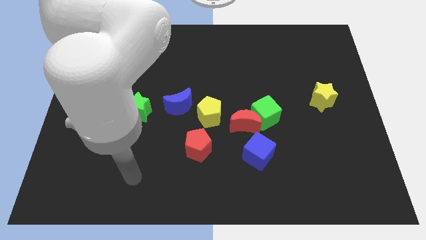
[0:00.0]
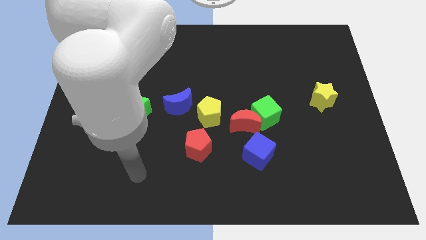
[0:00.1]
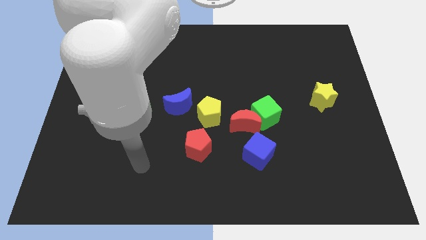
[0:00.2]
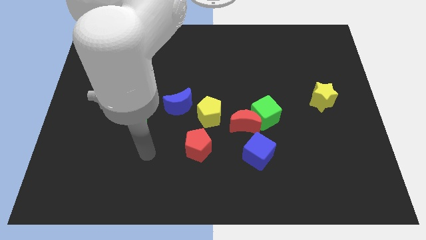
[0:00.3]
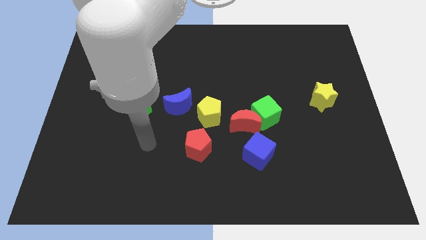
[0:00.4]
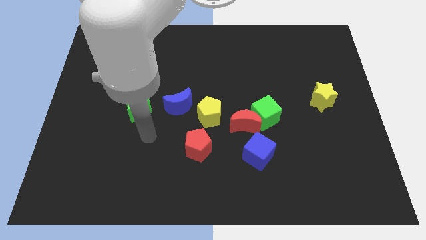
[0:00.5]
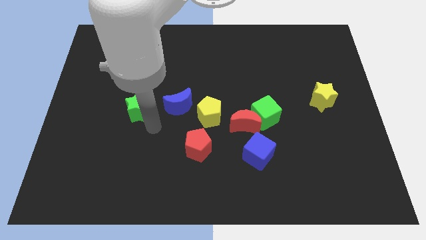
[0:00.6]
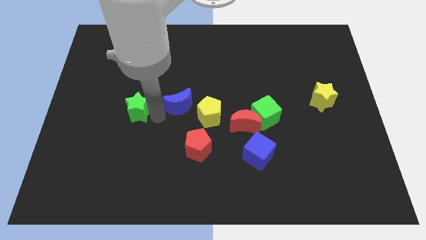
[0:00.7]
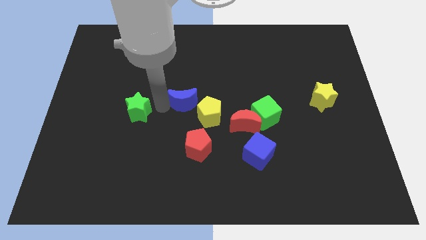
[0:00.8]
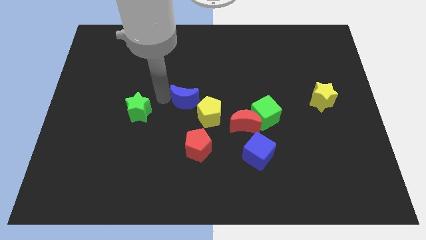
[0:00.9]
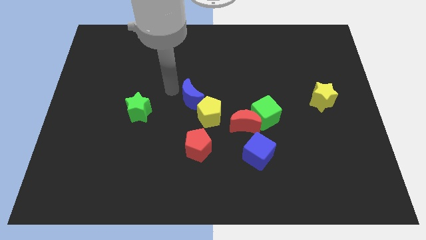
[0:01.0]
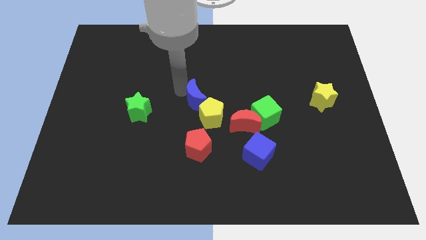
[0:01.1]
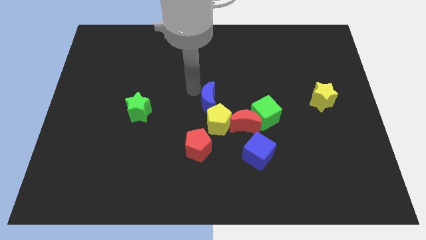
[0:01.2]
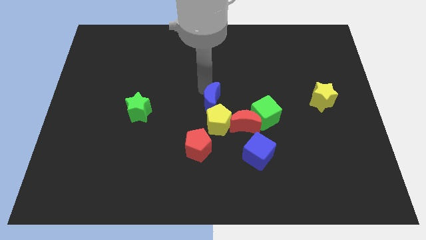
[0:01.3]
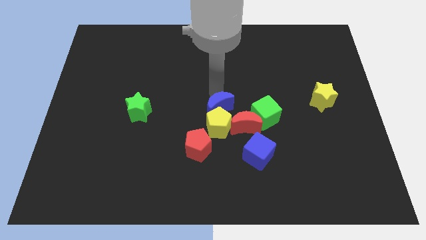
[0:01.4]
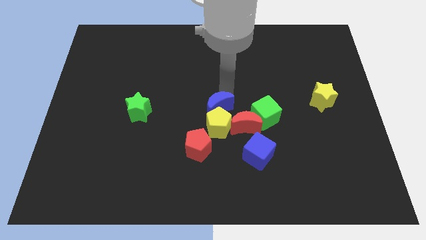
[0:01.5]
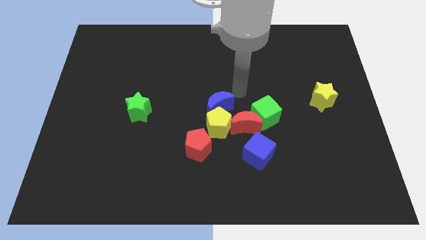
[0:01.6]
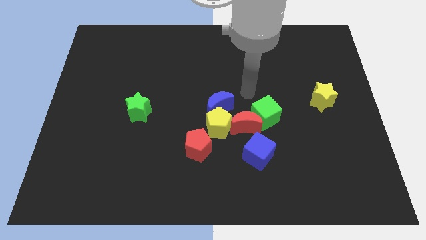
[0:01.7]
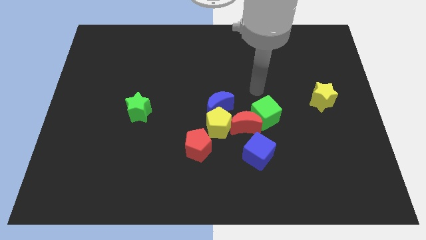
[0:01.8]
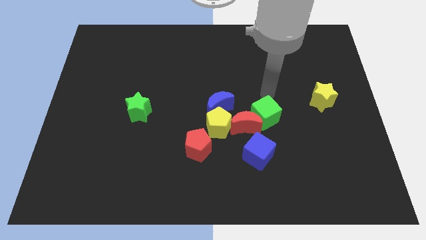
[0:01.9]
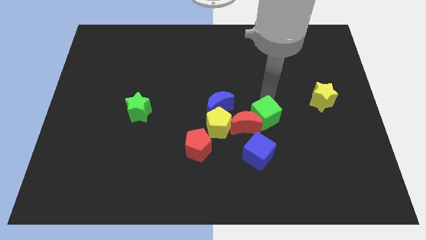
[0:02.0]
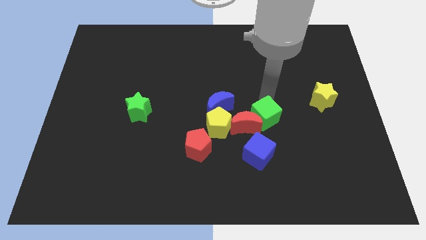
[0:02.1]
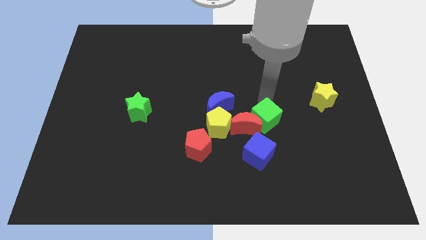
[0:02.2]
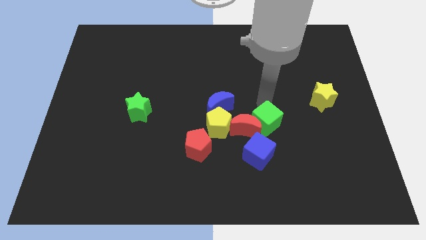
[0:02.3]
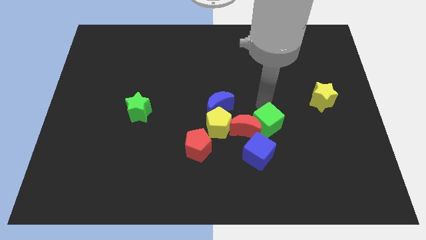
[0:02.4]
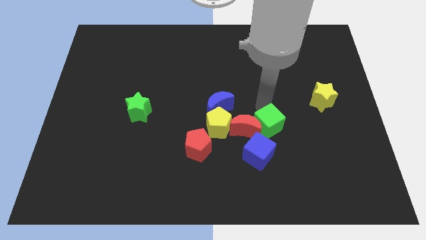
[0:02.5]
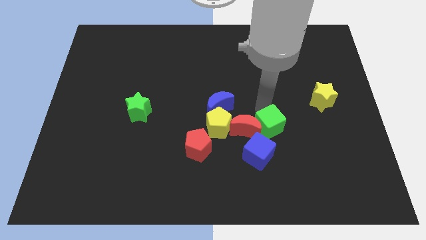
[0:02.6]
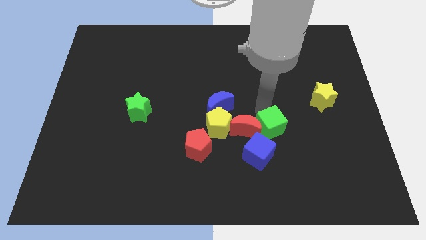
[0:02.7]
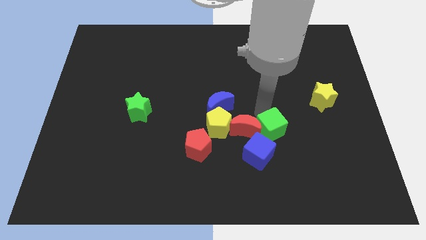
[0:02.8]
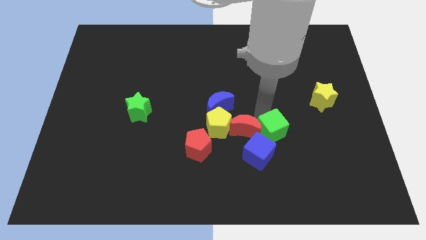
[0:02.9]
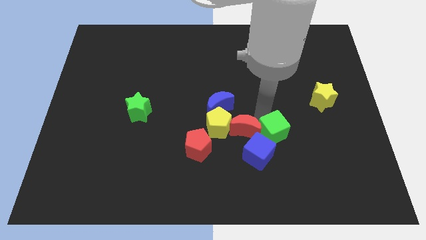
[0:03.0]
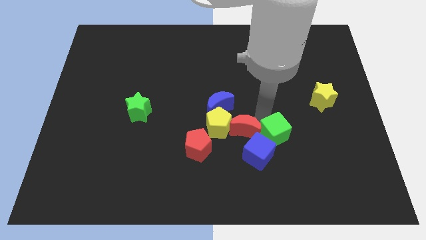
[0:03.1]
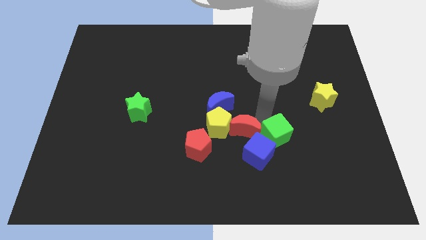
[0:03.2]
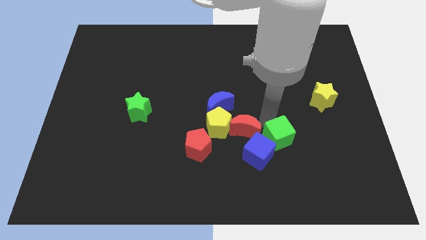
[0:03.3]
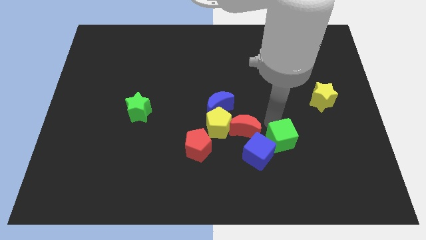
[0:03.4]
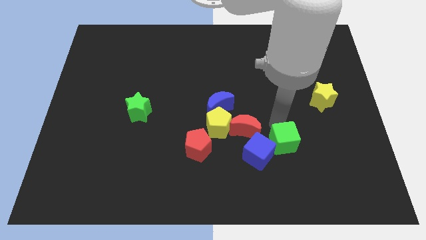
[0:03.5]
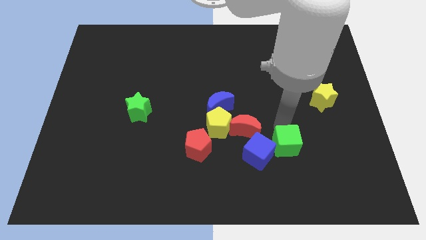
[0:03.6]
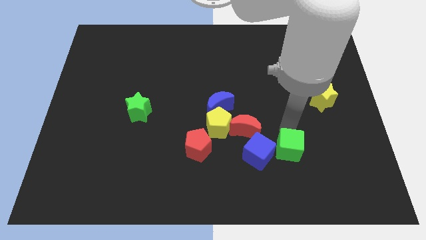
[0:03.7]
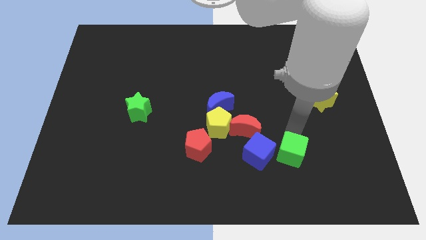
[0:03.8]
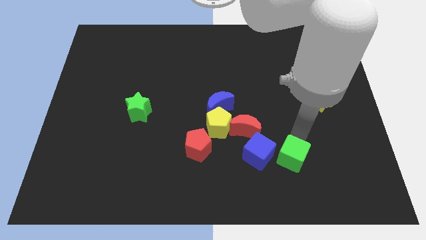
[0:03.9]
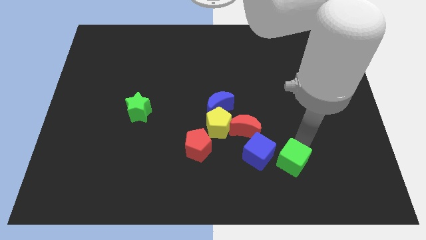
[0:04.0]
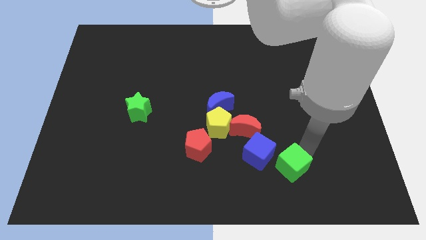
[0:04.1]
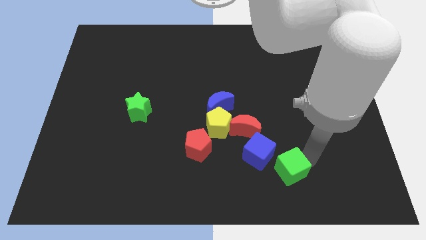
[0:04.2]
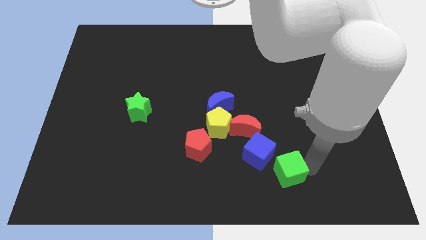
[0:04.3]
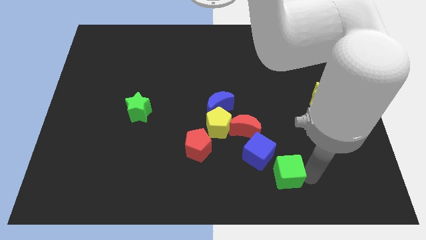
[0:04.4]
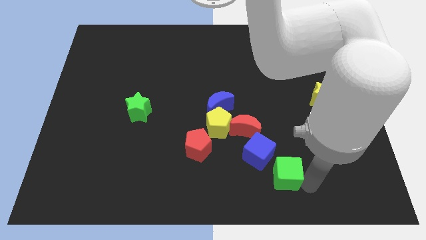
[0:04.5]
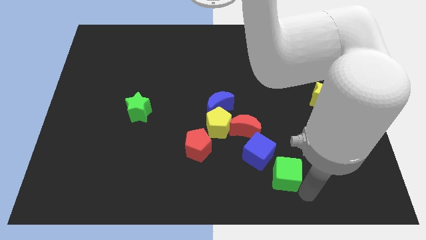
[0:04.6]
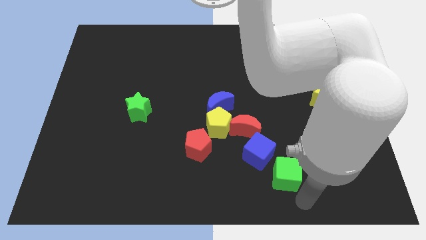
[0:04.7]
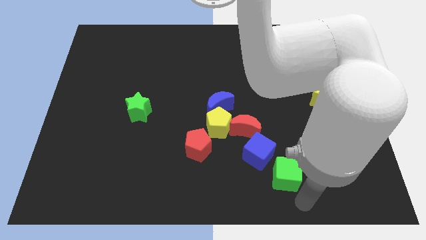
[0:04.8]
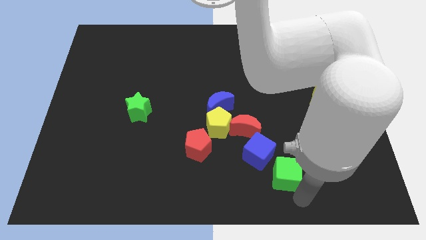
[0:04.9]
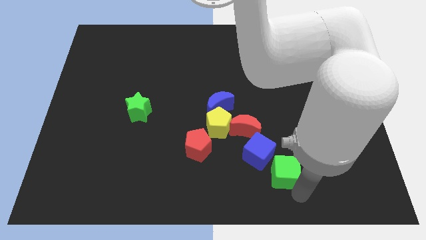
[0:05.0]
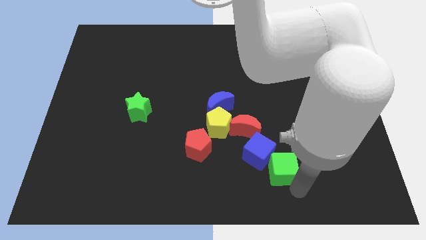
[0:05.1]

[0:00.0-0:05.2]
put the green cube close to the blue cube

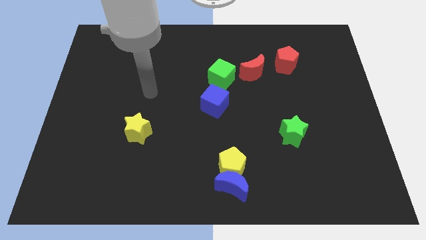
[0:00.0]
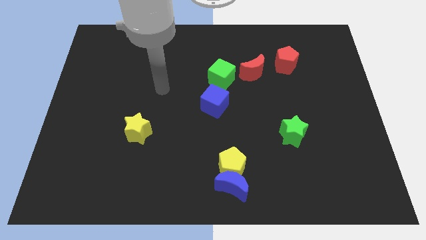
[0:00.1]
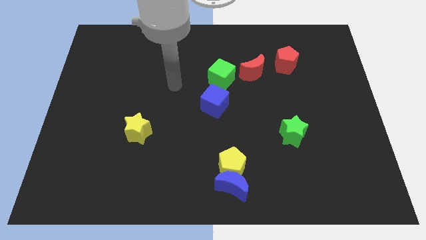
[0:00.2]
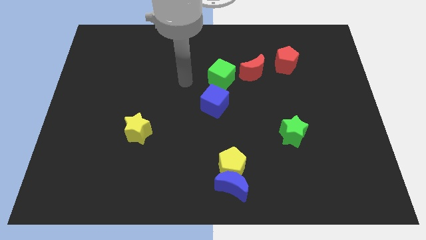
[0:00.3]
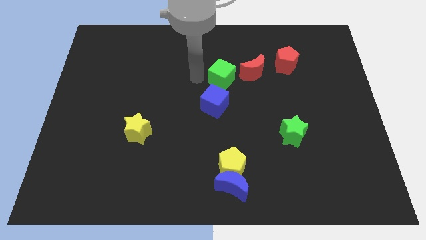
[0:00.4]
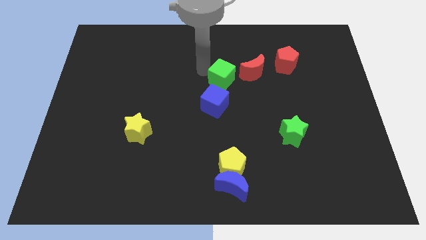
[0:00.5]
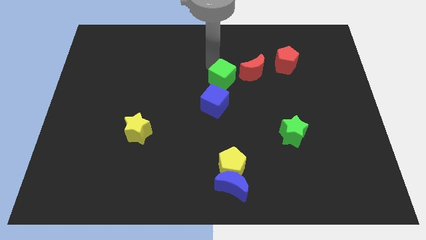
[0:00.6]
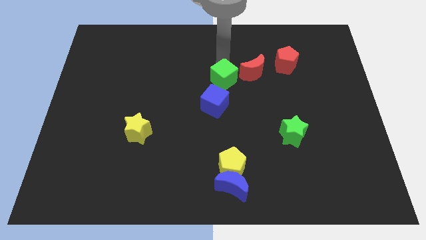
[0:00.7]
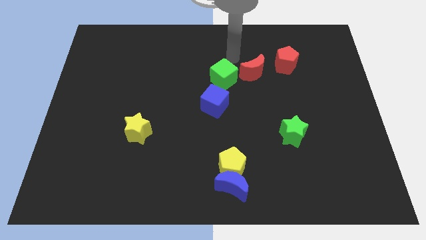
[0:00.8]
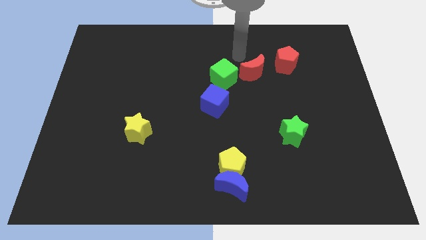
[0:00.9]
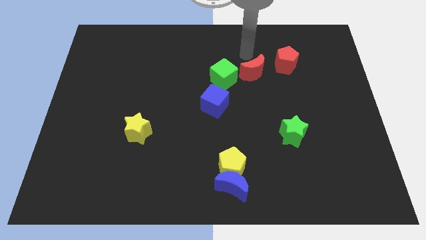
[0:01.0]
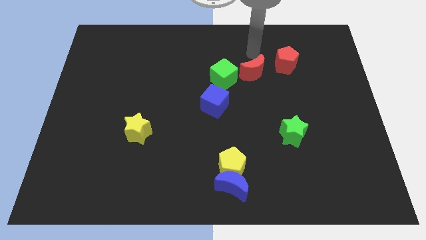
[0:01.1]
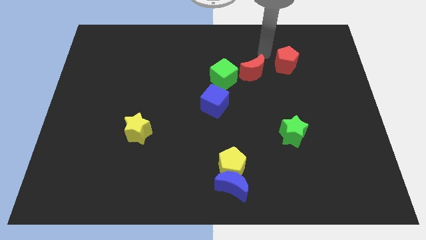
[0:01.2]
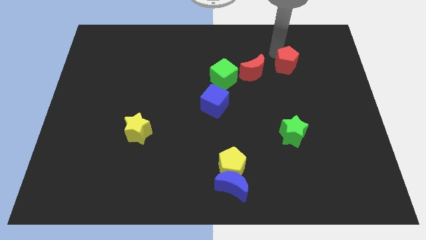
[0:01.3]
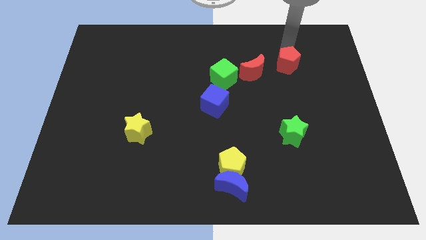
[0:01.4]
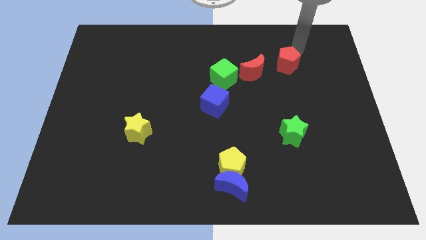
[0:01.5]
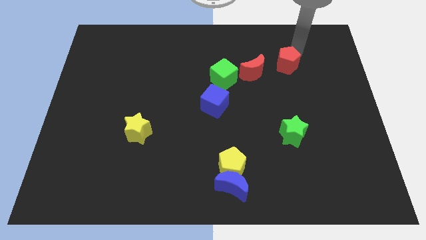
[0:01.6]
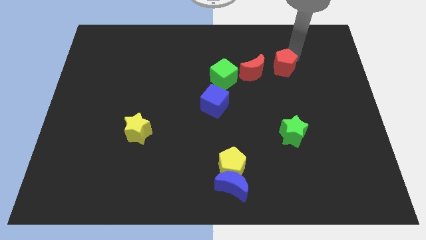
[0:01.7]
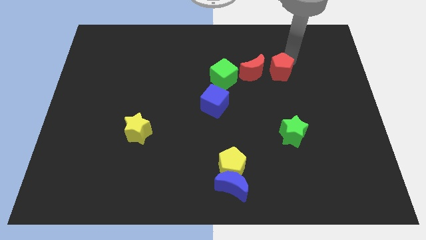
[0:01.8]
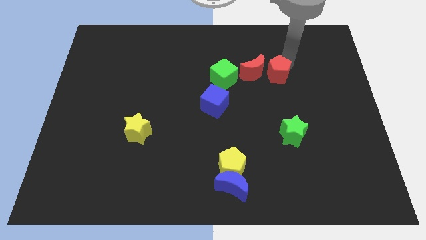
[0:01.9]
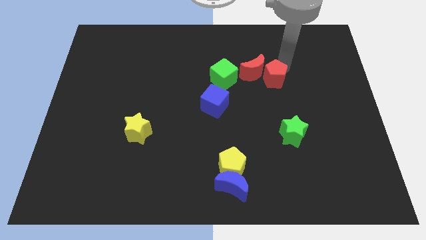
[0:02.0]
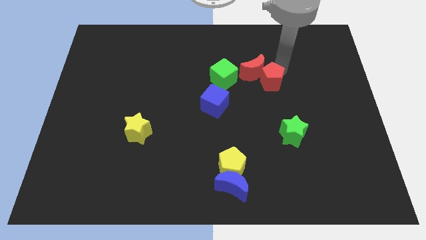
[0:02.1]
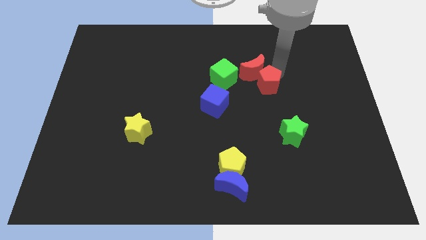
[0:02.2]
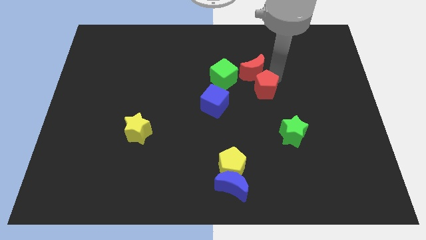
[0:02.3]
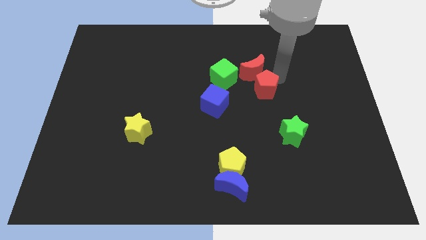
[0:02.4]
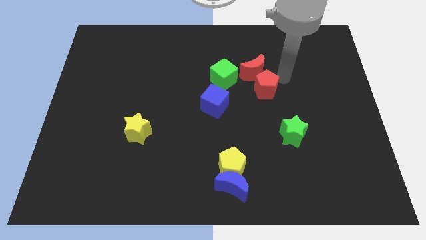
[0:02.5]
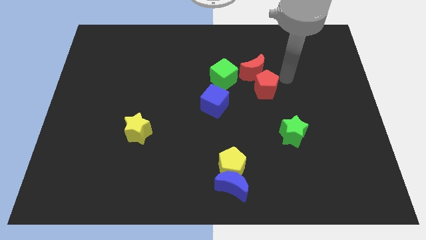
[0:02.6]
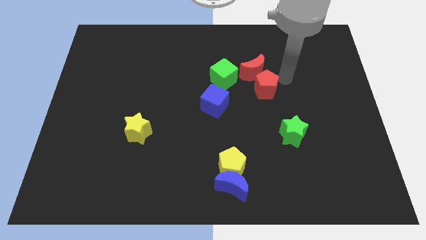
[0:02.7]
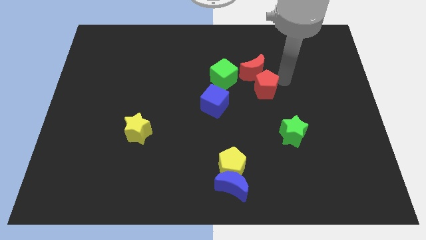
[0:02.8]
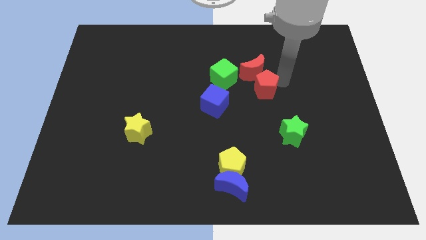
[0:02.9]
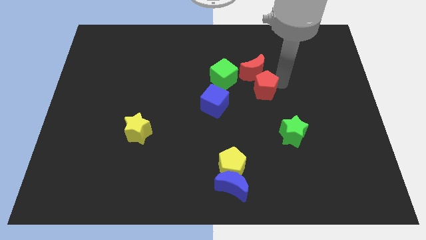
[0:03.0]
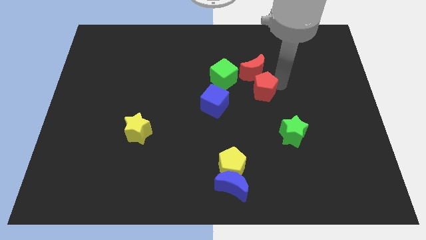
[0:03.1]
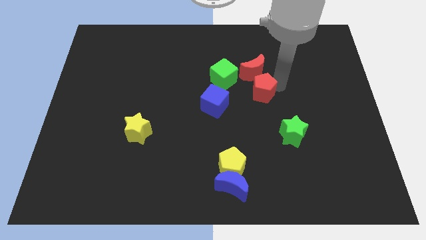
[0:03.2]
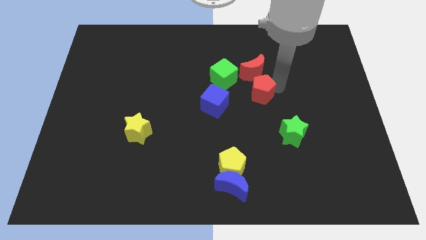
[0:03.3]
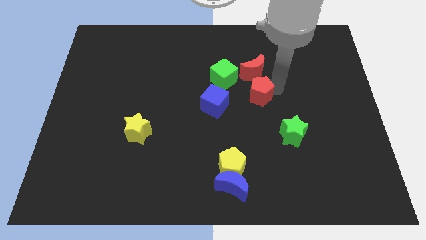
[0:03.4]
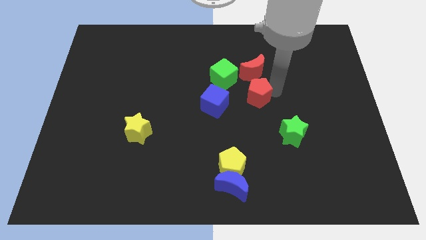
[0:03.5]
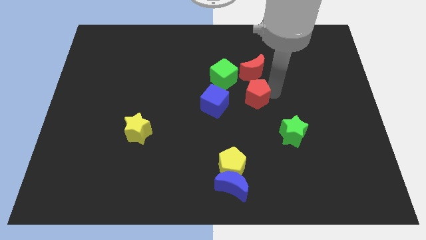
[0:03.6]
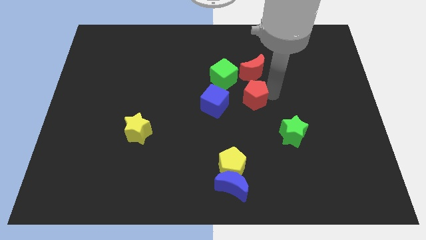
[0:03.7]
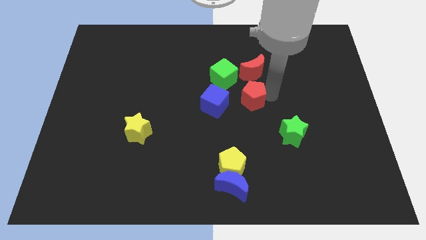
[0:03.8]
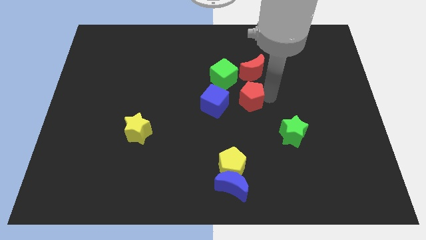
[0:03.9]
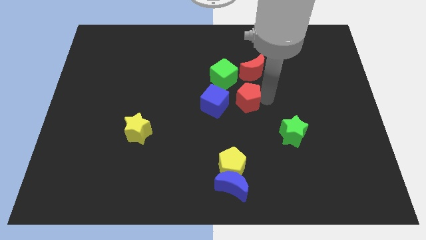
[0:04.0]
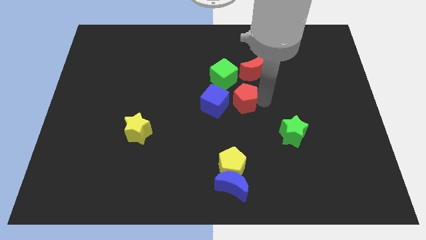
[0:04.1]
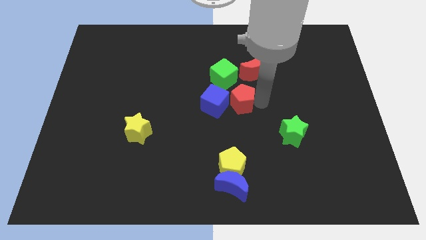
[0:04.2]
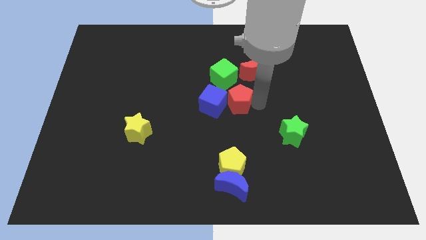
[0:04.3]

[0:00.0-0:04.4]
push the red pentagon next to the blue cube
